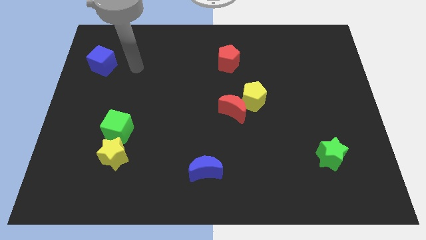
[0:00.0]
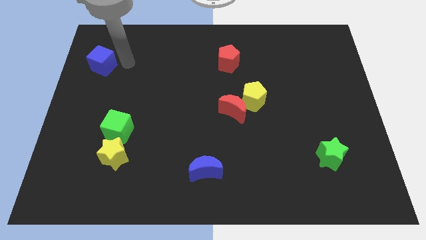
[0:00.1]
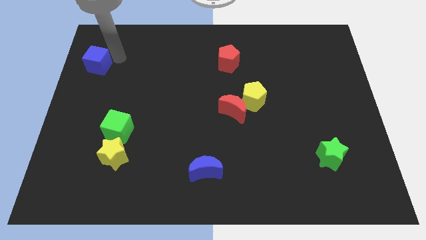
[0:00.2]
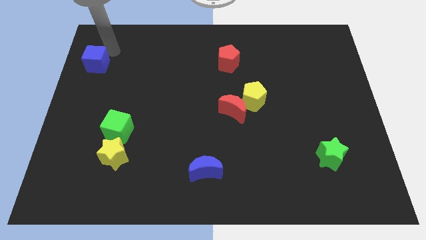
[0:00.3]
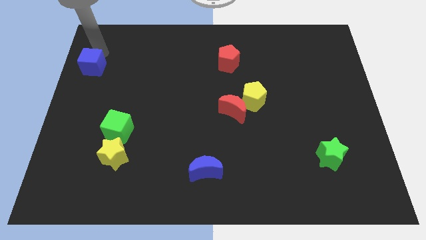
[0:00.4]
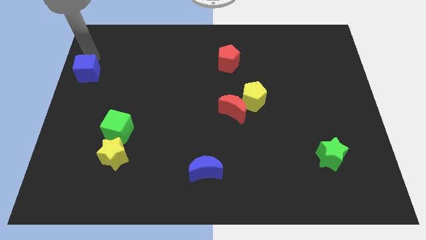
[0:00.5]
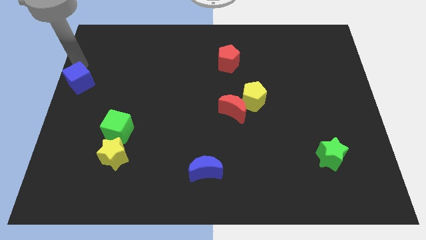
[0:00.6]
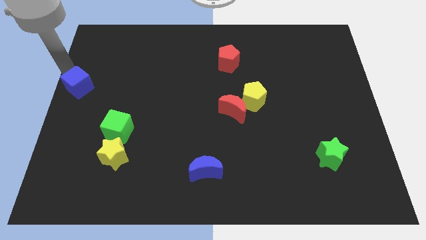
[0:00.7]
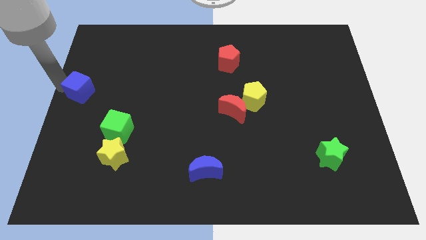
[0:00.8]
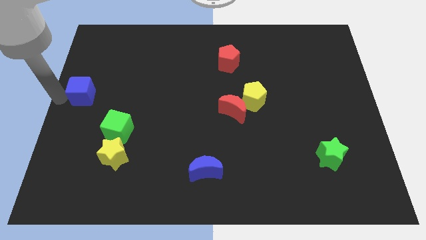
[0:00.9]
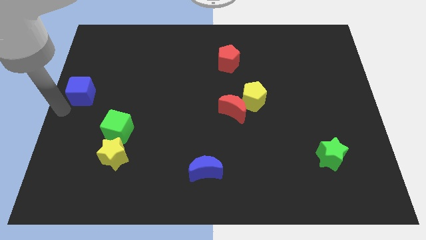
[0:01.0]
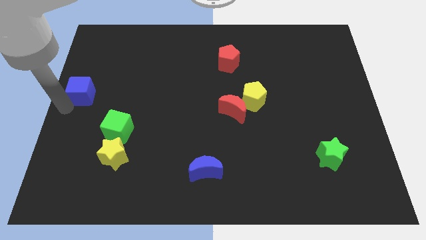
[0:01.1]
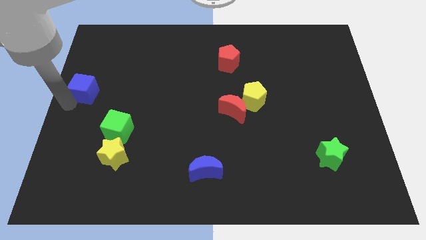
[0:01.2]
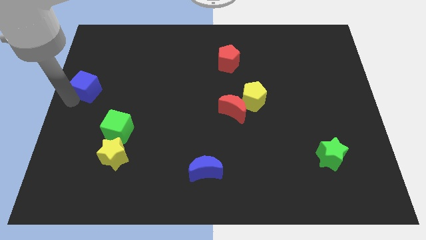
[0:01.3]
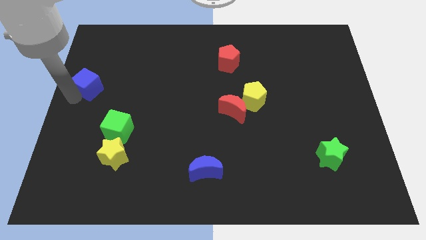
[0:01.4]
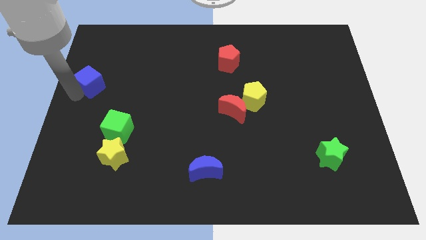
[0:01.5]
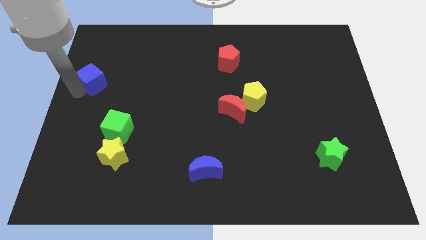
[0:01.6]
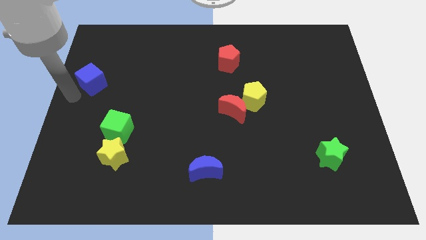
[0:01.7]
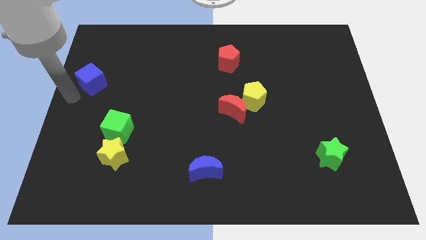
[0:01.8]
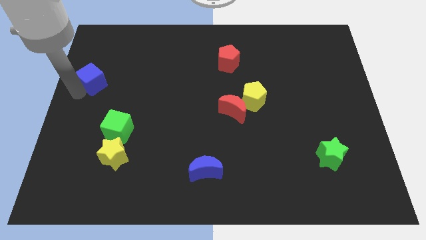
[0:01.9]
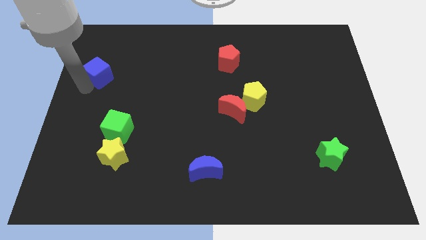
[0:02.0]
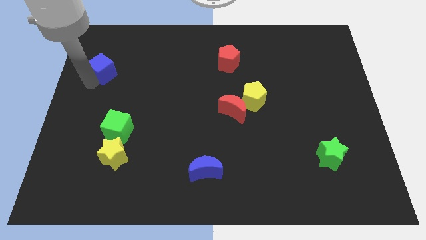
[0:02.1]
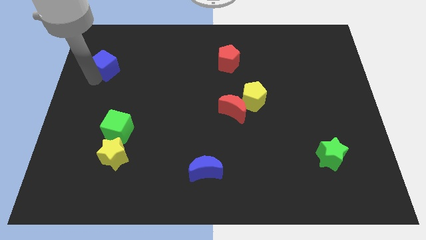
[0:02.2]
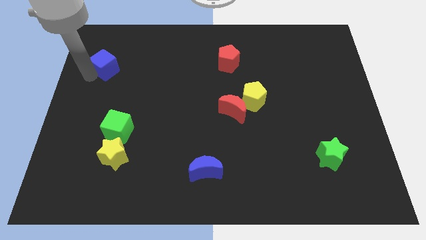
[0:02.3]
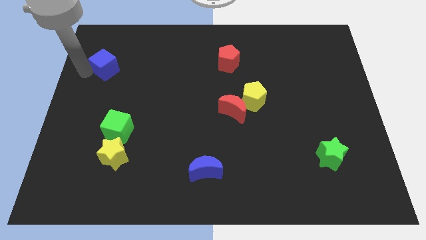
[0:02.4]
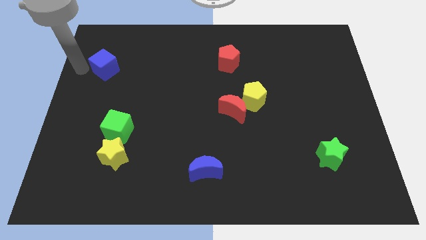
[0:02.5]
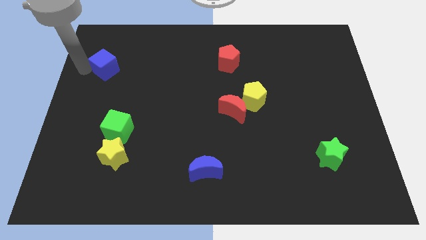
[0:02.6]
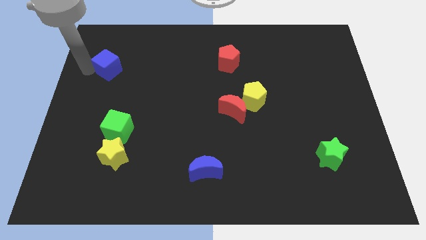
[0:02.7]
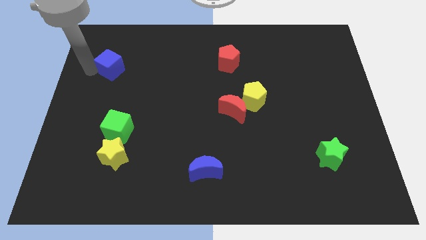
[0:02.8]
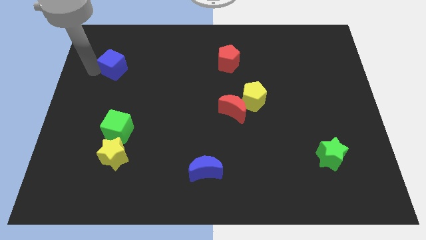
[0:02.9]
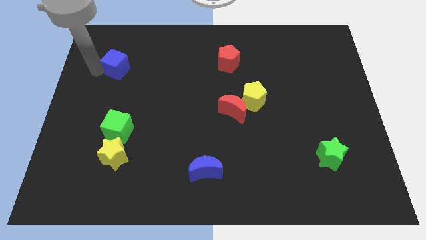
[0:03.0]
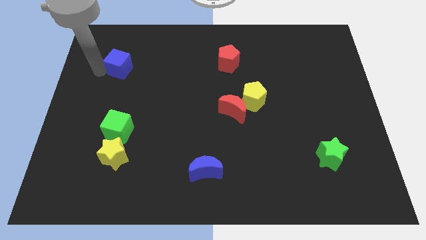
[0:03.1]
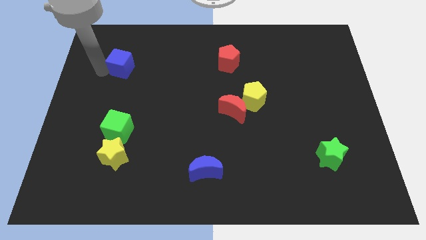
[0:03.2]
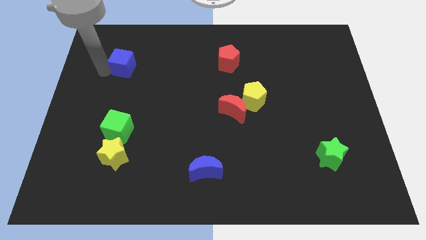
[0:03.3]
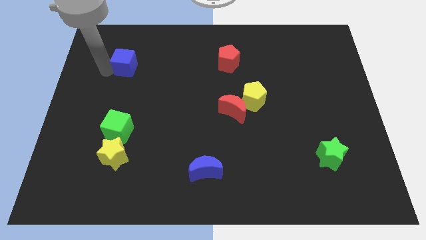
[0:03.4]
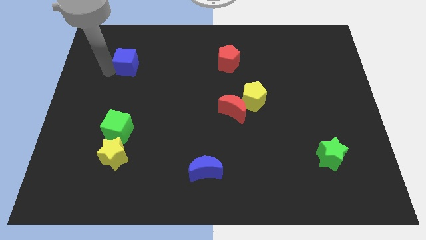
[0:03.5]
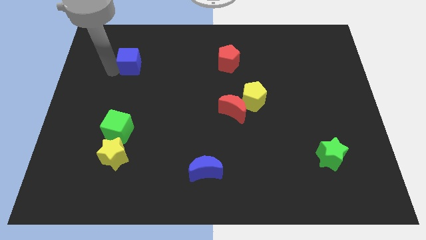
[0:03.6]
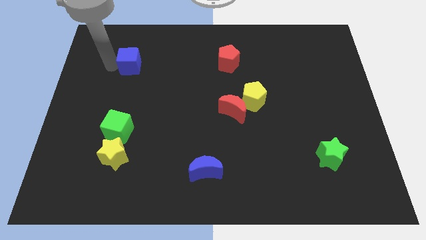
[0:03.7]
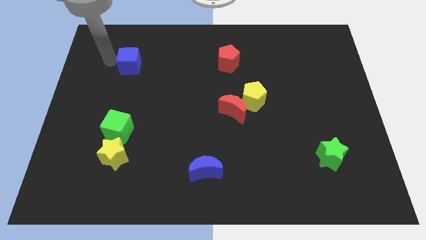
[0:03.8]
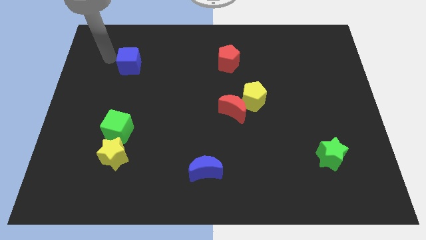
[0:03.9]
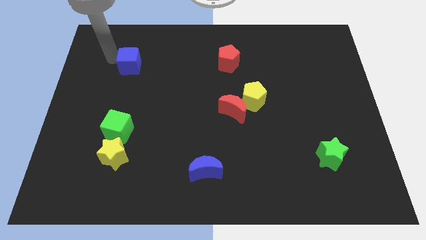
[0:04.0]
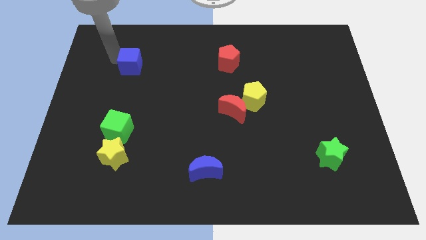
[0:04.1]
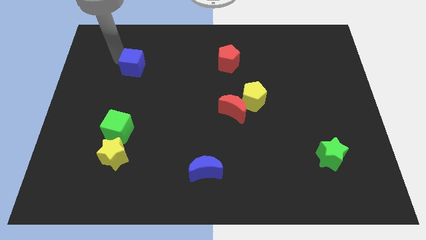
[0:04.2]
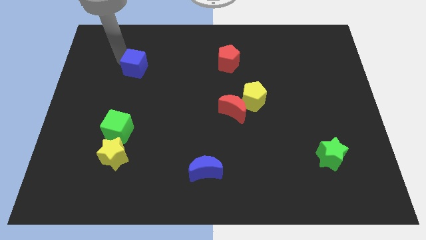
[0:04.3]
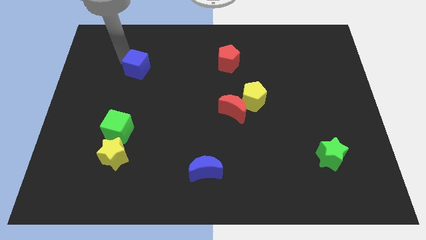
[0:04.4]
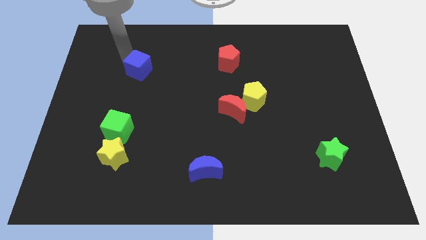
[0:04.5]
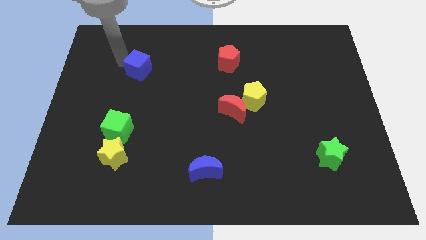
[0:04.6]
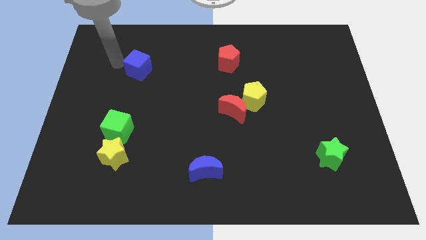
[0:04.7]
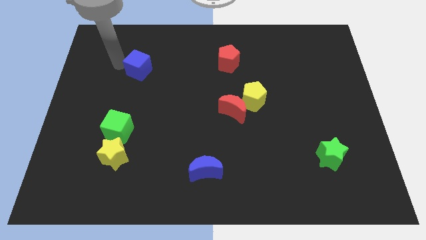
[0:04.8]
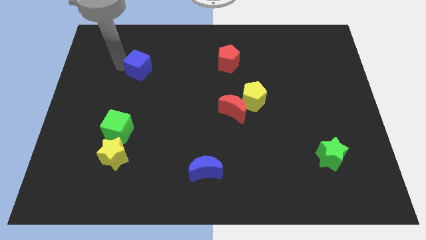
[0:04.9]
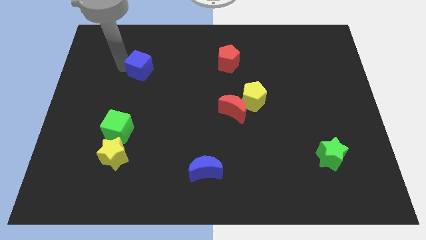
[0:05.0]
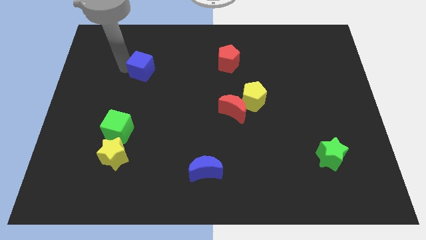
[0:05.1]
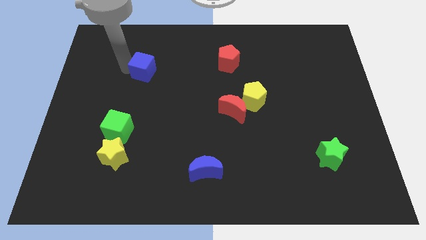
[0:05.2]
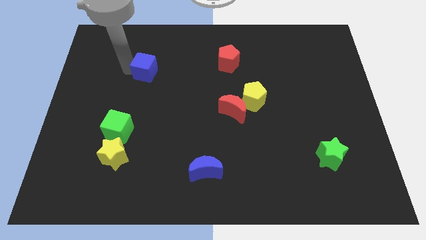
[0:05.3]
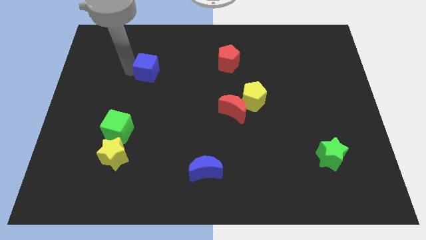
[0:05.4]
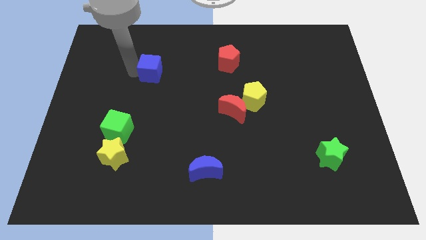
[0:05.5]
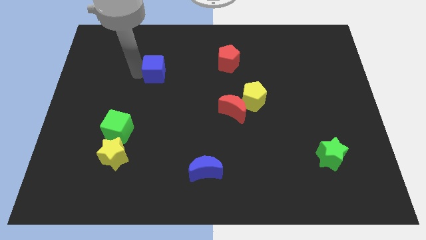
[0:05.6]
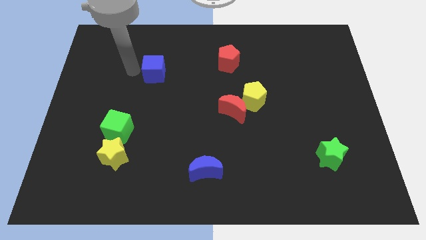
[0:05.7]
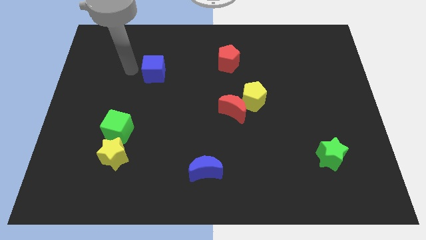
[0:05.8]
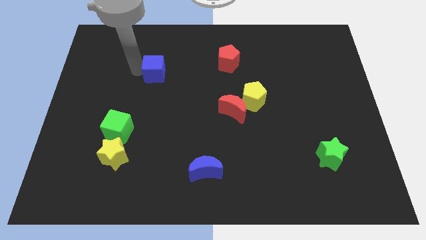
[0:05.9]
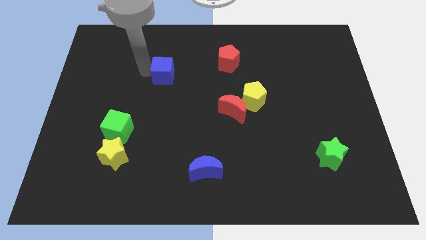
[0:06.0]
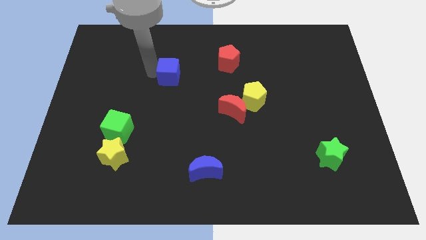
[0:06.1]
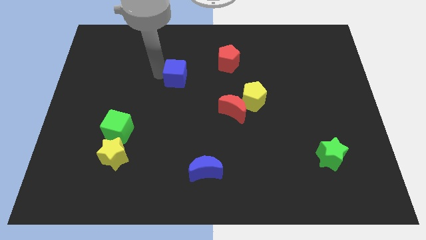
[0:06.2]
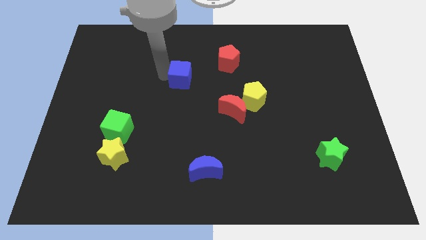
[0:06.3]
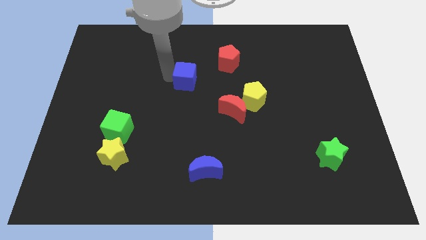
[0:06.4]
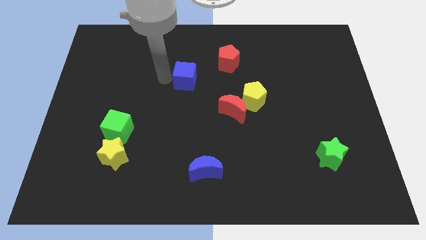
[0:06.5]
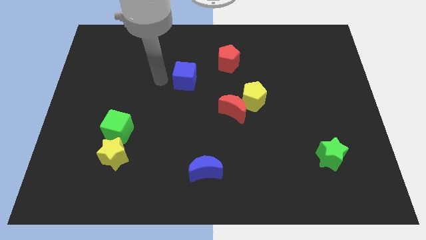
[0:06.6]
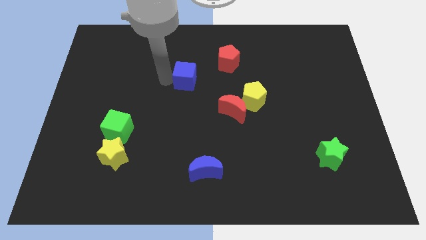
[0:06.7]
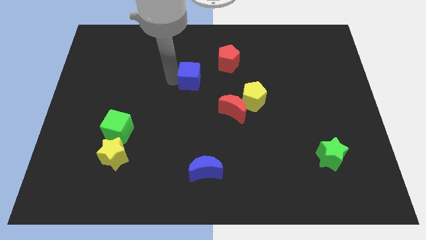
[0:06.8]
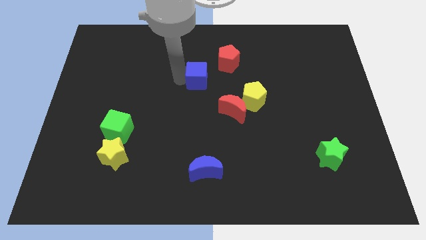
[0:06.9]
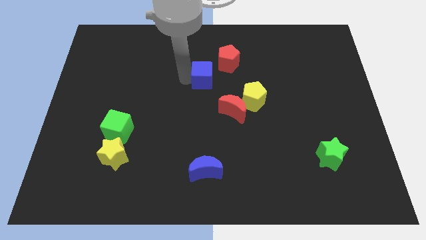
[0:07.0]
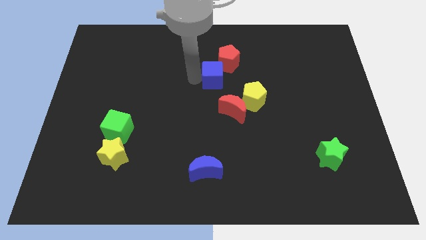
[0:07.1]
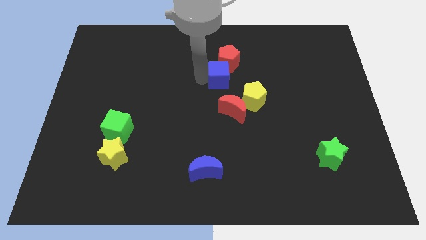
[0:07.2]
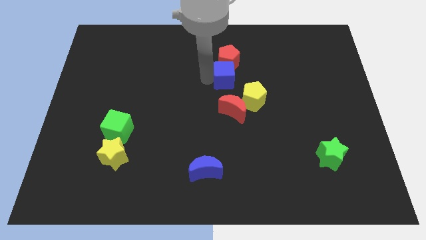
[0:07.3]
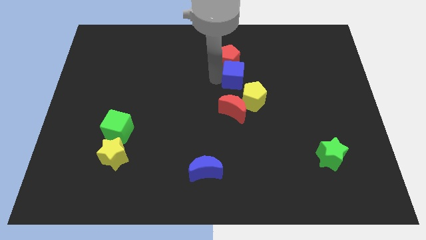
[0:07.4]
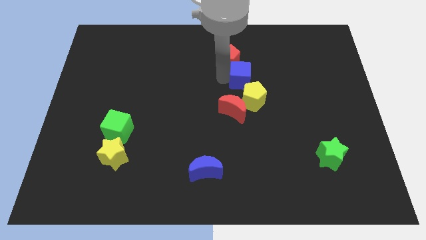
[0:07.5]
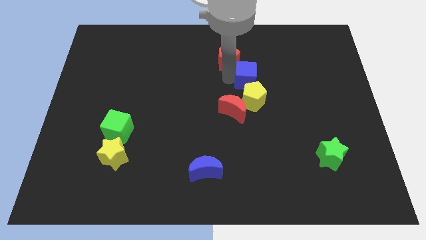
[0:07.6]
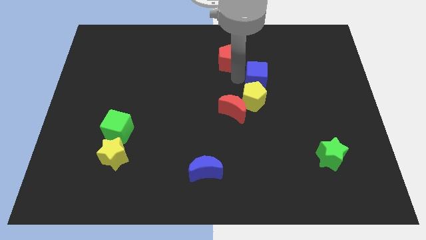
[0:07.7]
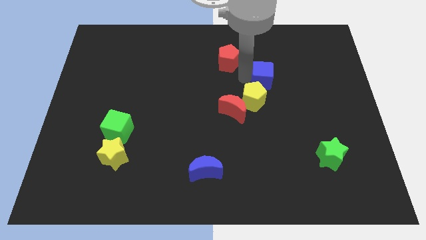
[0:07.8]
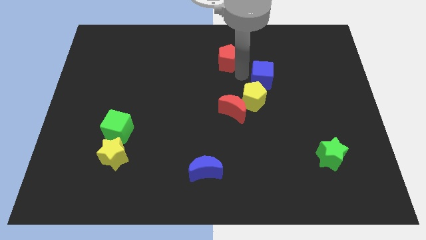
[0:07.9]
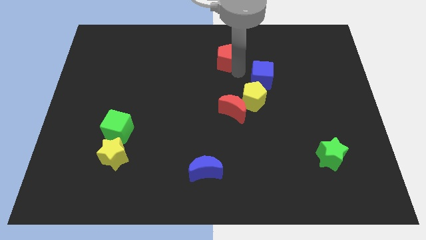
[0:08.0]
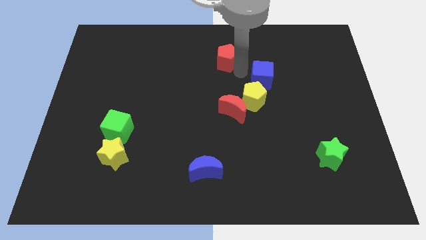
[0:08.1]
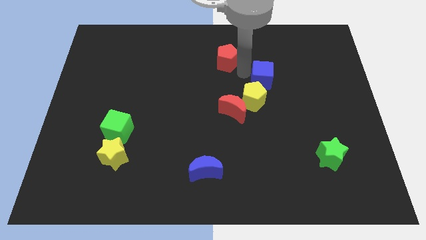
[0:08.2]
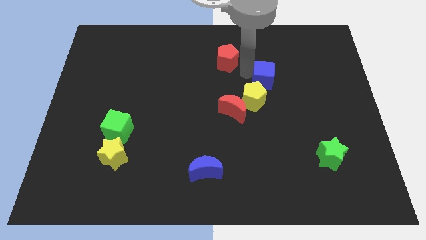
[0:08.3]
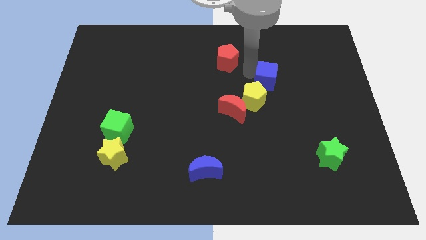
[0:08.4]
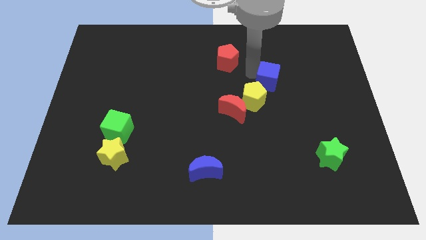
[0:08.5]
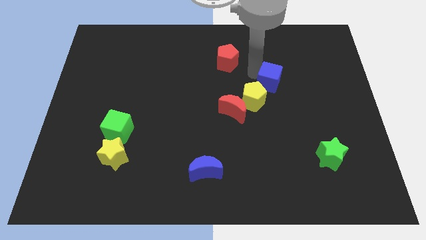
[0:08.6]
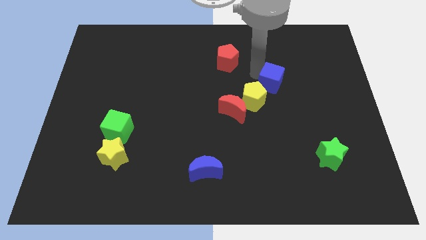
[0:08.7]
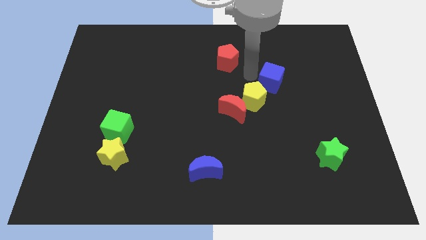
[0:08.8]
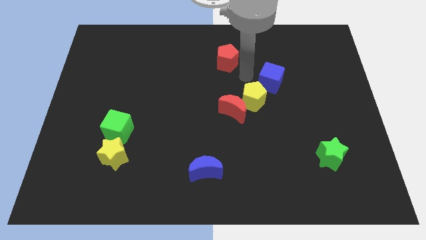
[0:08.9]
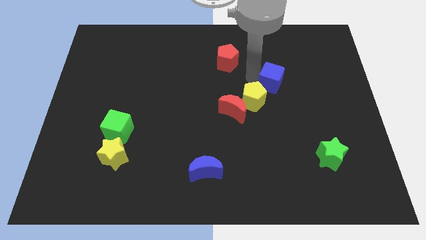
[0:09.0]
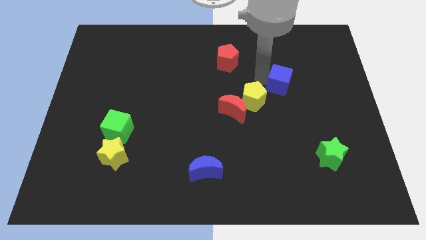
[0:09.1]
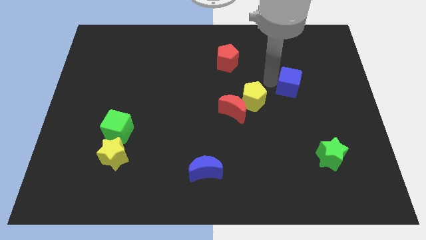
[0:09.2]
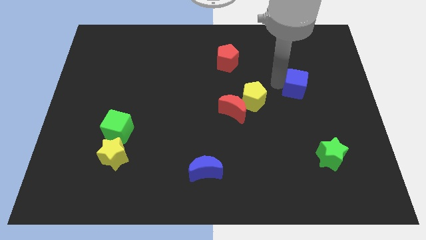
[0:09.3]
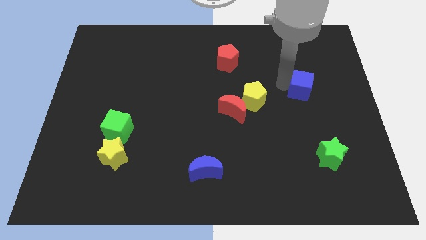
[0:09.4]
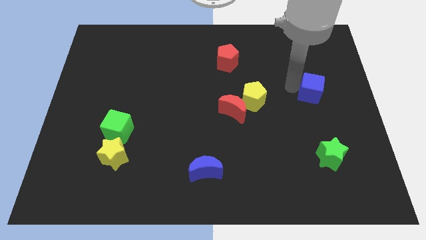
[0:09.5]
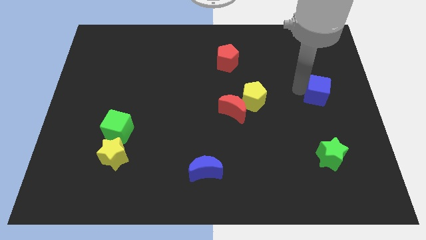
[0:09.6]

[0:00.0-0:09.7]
move the blue cube to the right side of the board
